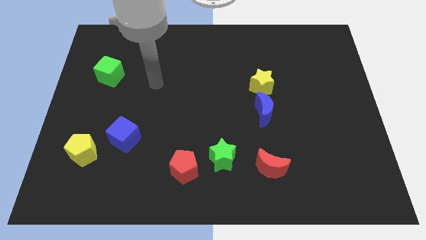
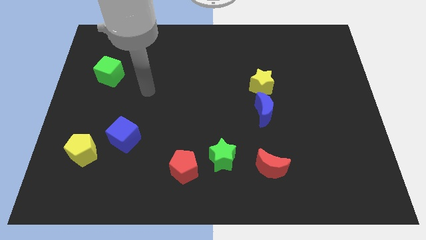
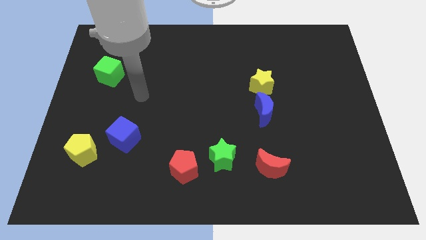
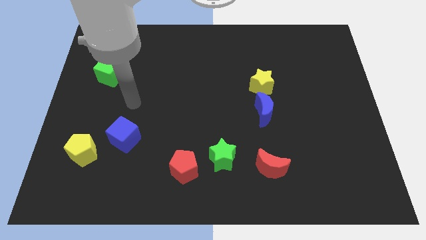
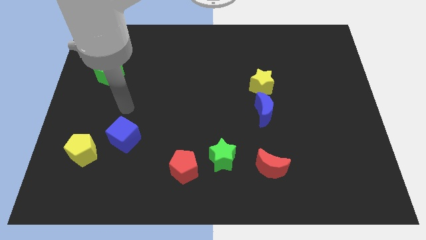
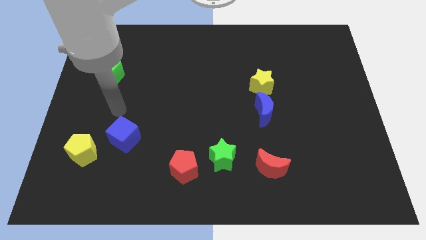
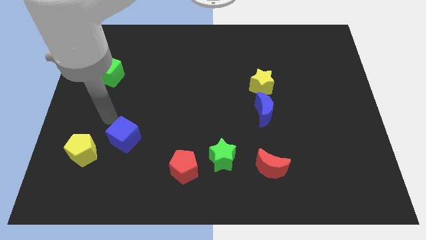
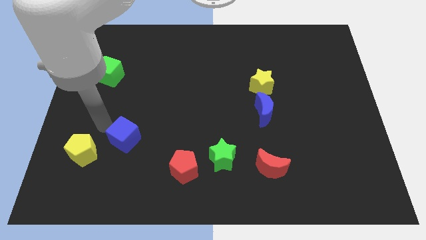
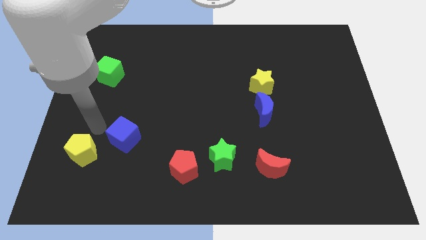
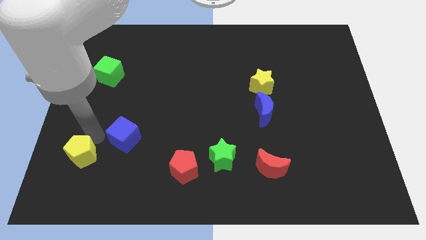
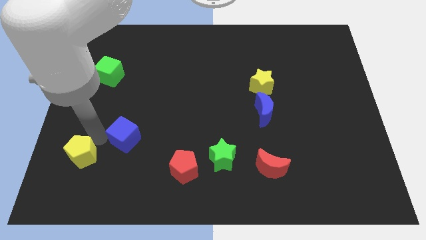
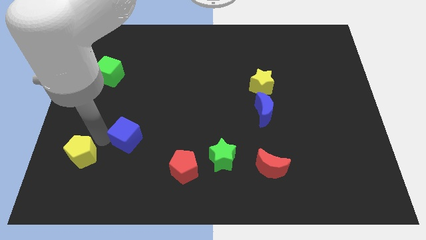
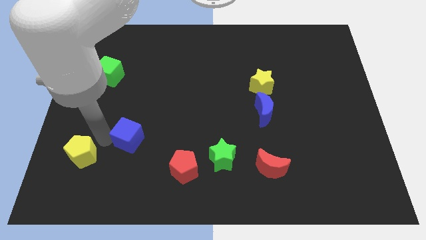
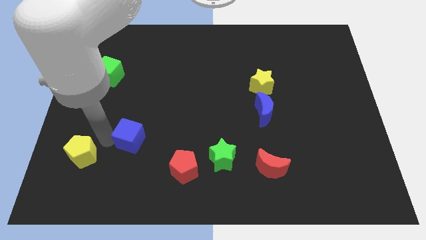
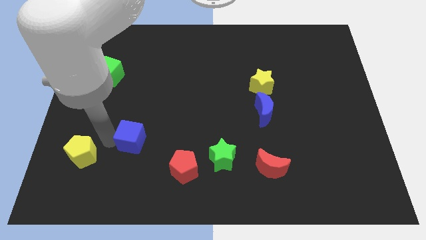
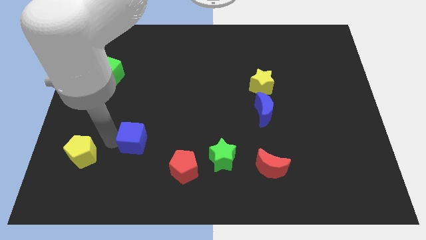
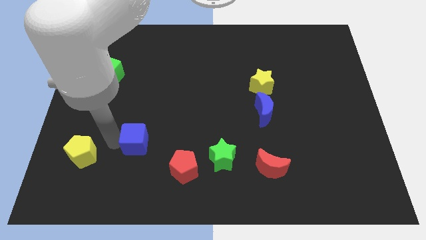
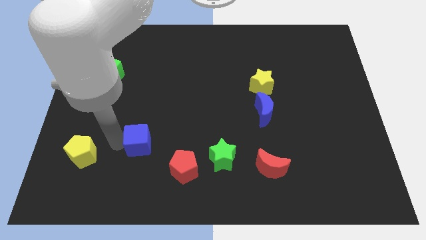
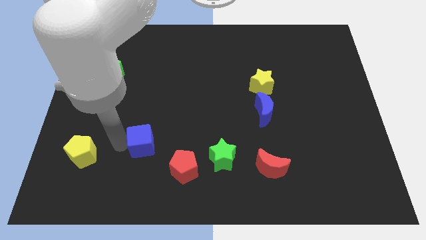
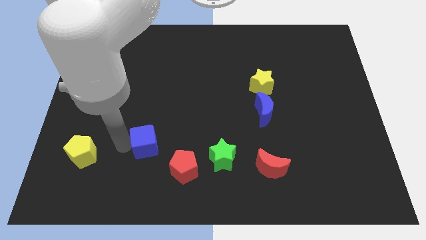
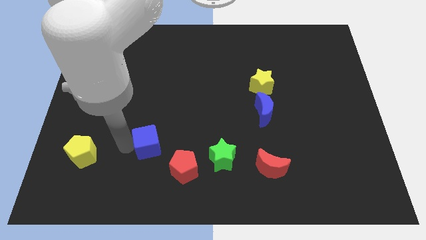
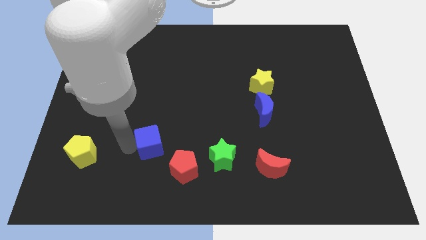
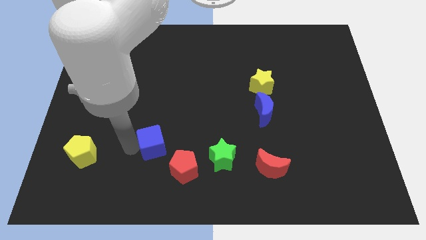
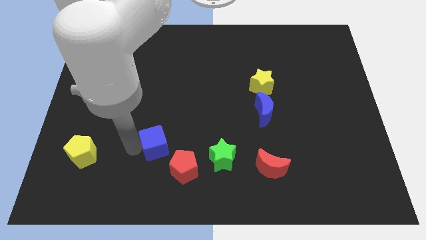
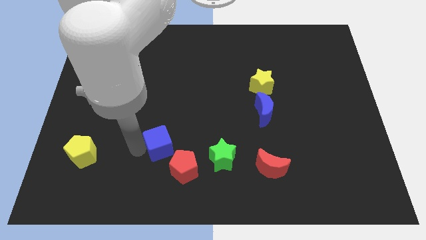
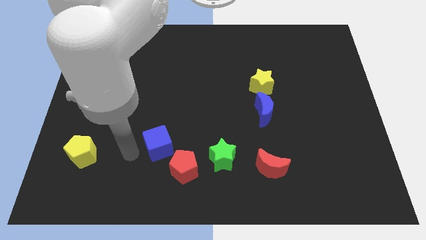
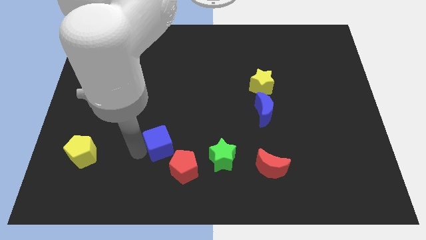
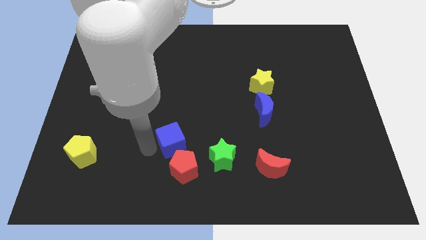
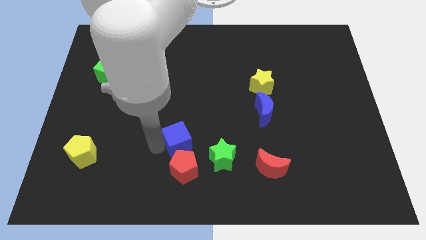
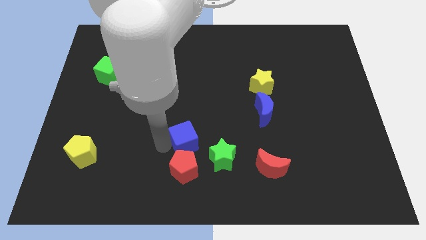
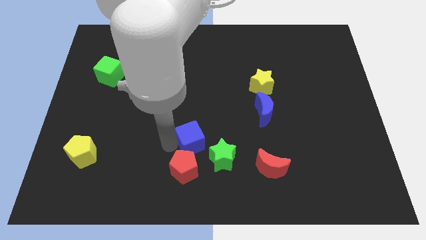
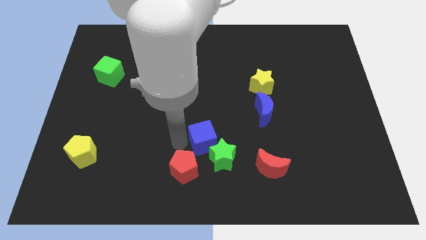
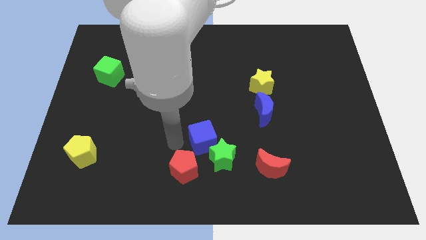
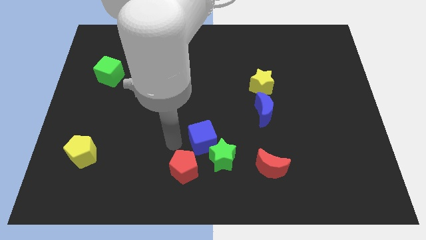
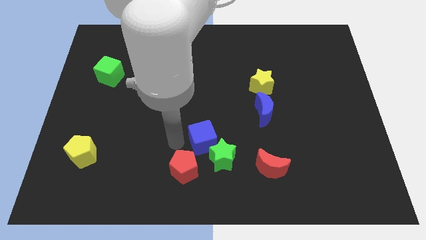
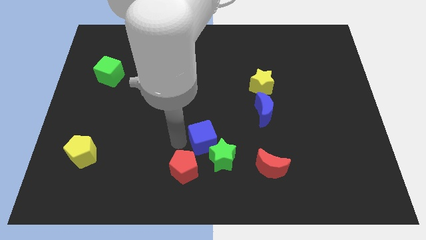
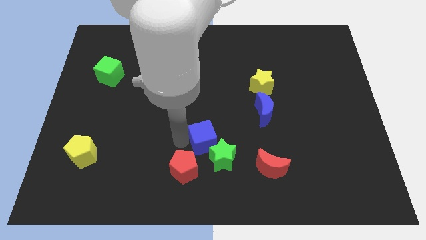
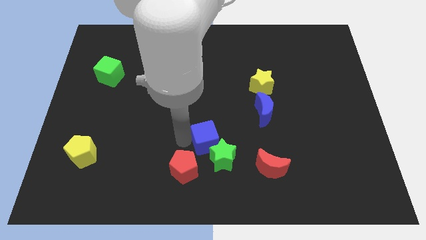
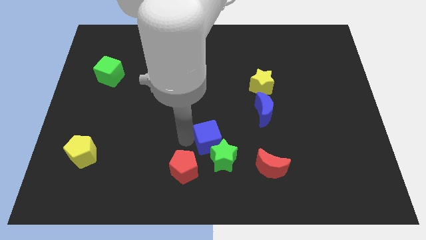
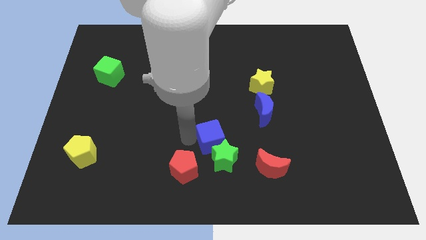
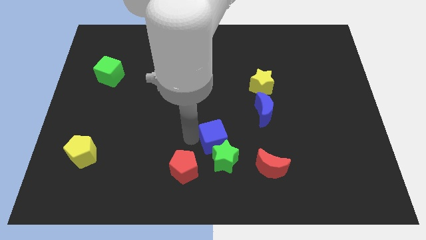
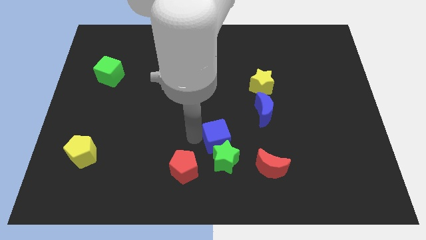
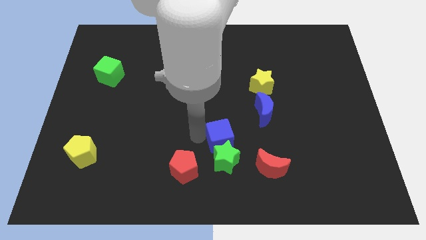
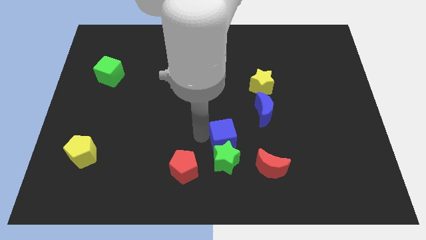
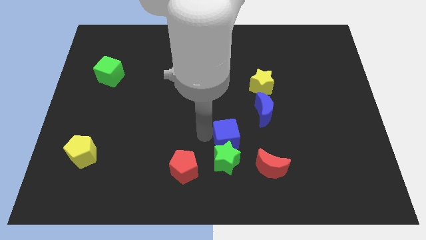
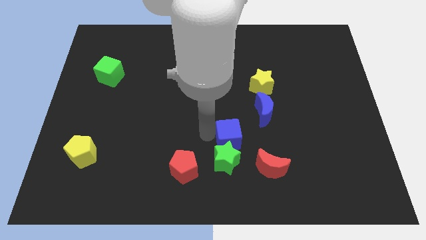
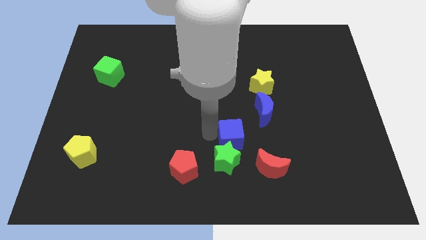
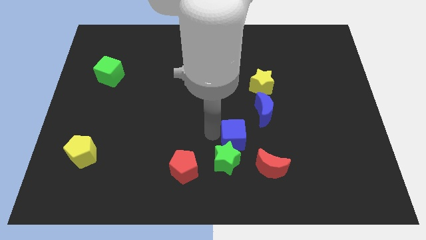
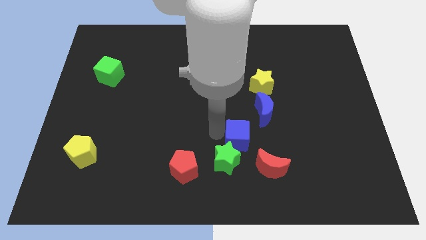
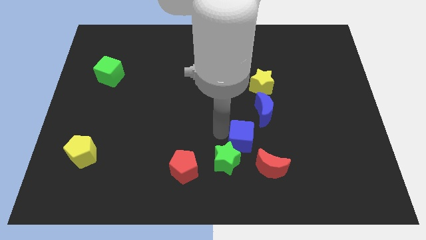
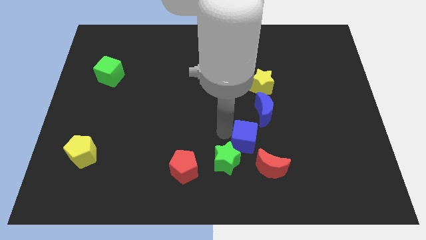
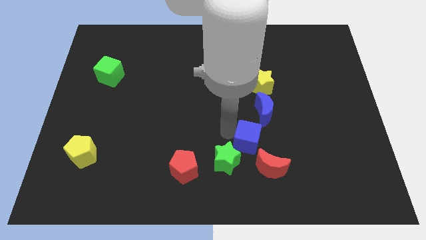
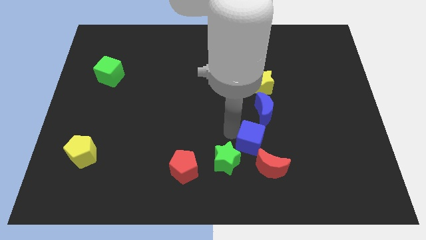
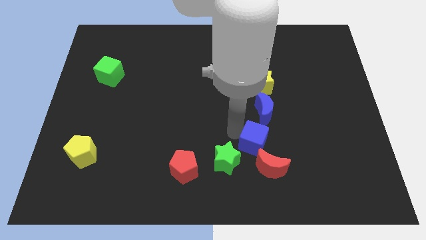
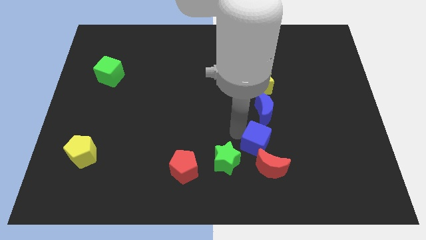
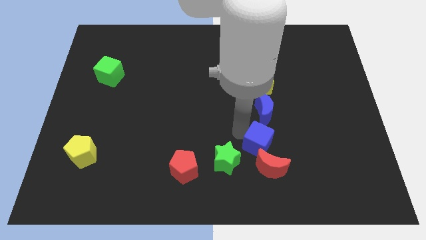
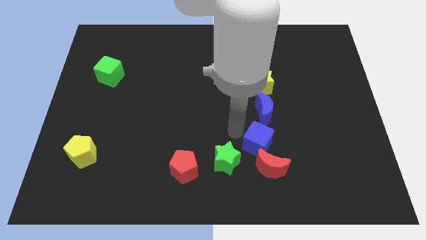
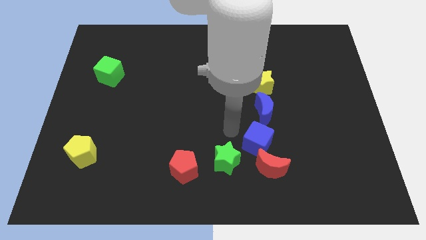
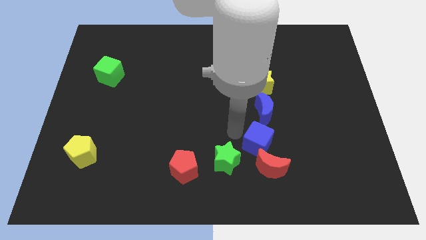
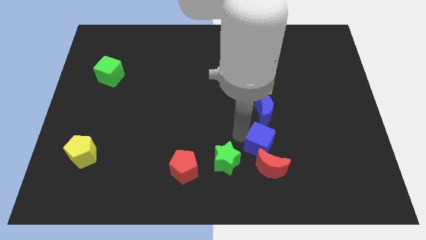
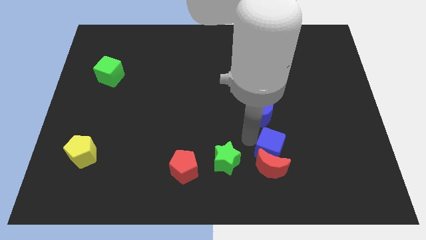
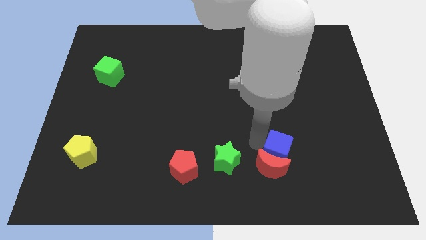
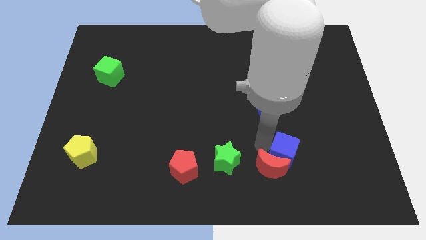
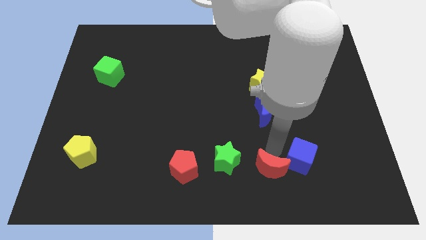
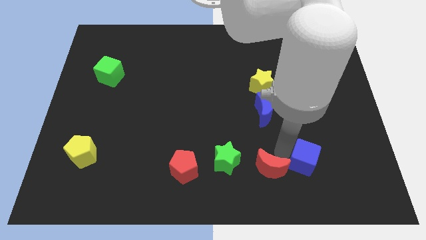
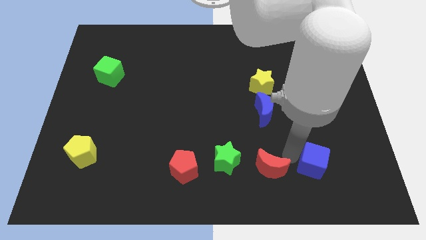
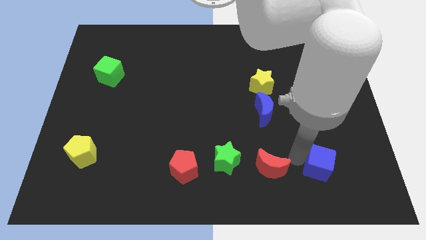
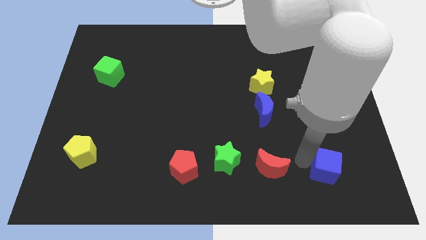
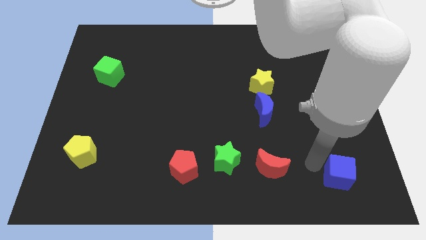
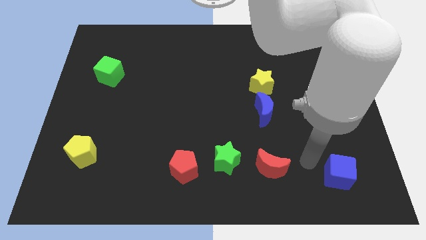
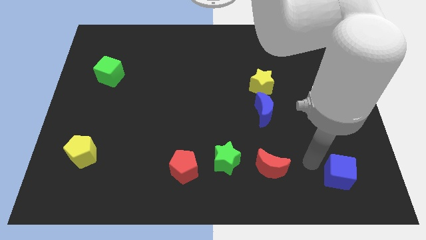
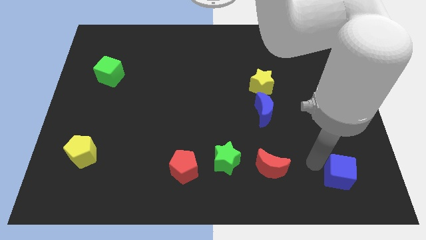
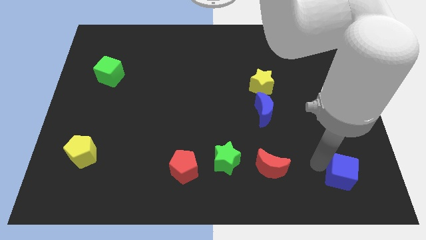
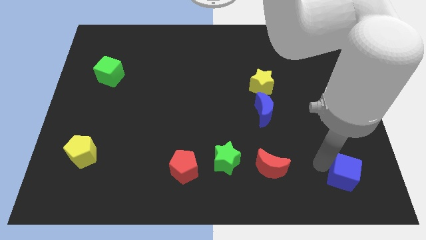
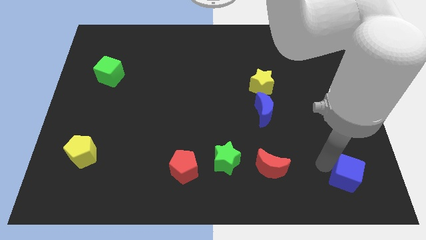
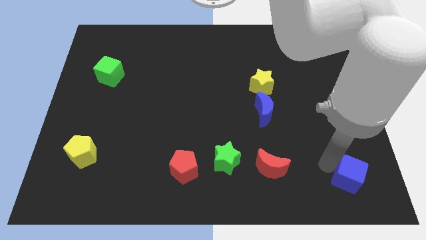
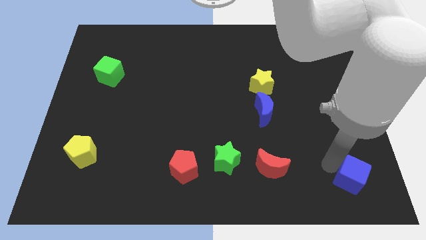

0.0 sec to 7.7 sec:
put the blue cube to the lower right corner
